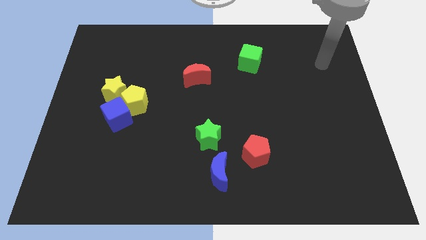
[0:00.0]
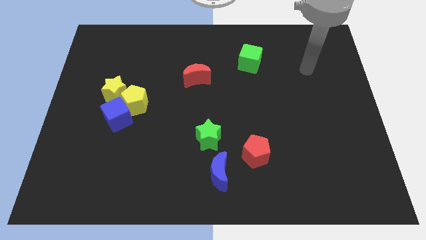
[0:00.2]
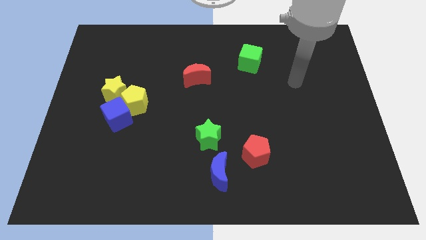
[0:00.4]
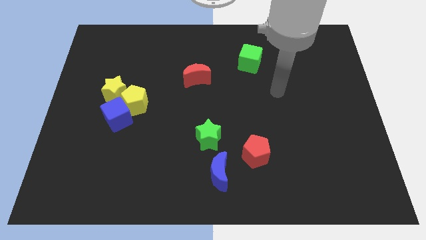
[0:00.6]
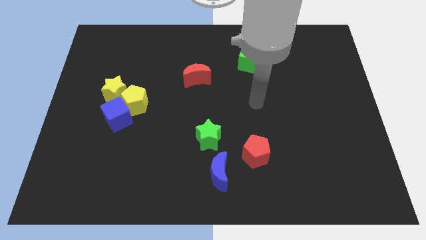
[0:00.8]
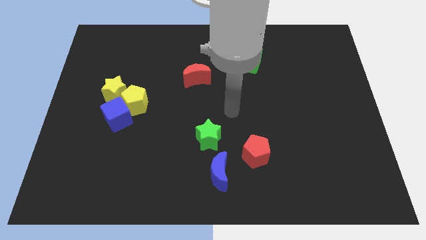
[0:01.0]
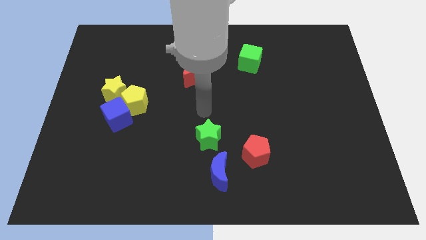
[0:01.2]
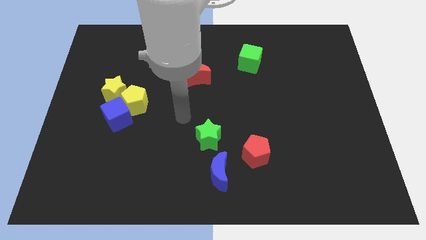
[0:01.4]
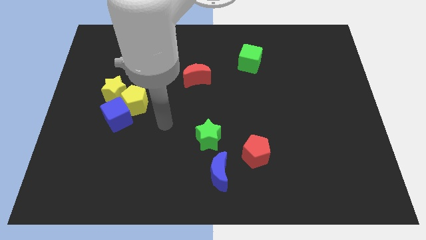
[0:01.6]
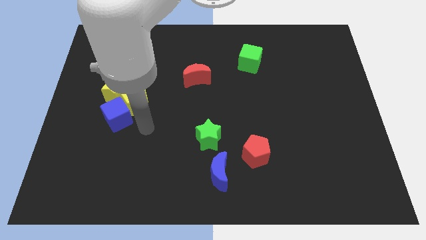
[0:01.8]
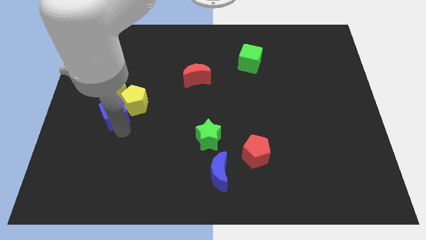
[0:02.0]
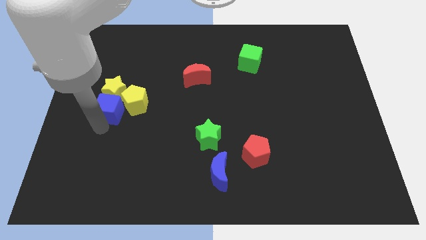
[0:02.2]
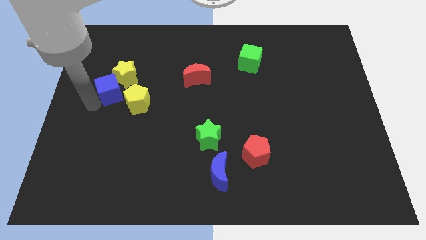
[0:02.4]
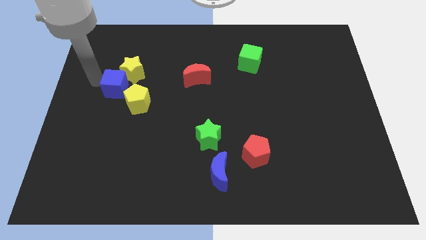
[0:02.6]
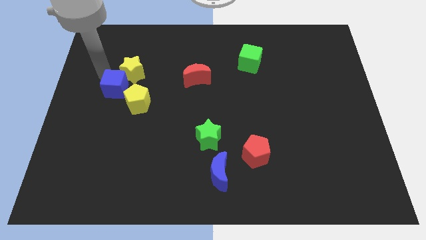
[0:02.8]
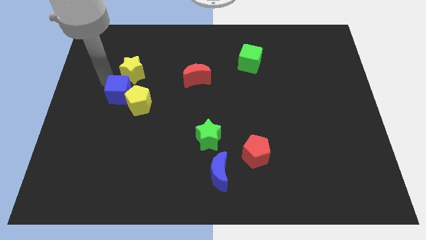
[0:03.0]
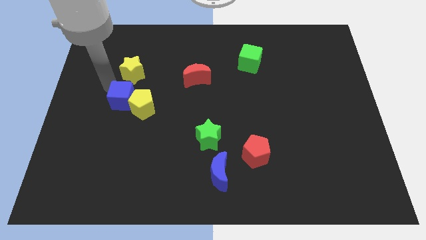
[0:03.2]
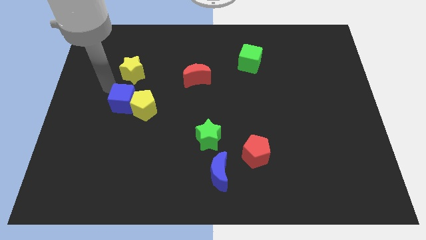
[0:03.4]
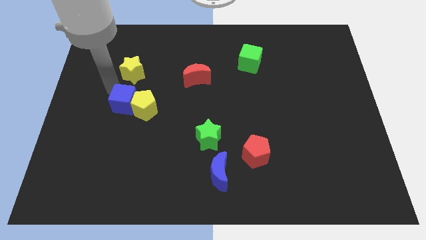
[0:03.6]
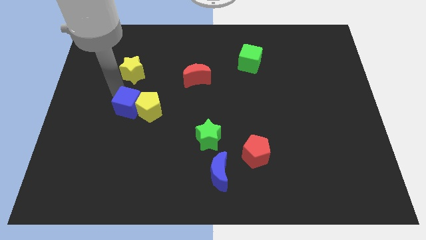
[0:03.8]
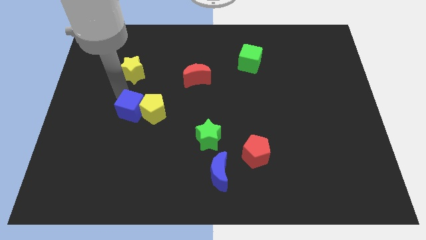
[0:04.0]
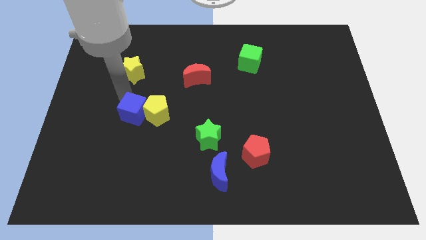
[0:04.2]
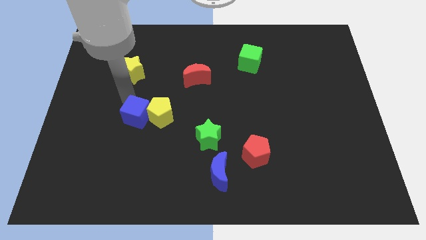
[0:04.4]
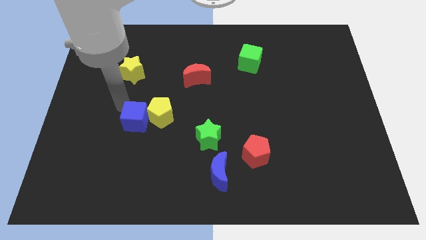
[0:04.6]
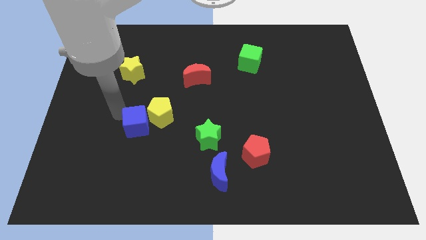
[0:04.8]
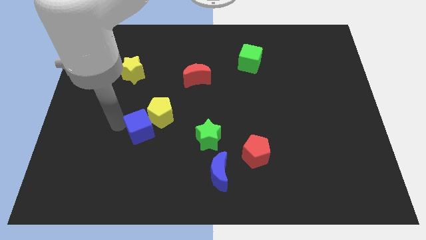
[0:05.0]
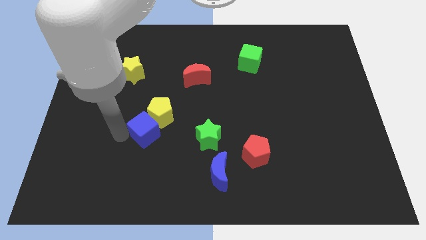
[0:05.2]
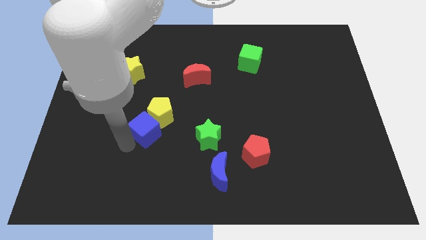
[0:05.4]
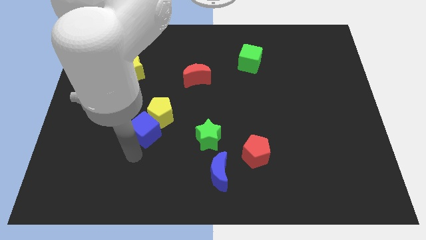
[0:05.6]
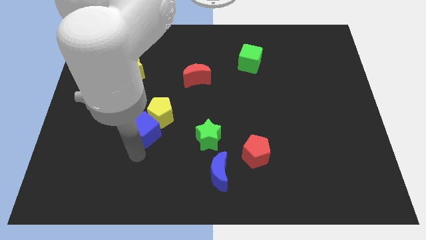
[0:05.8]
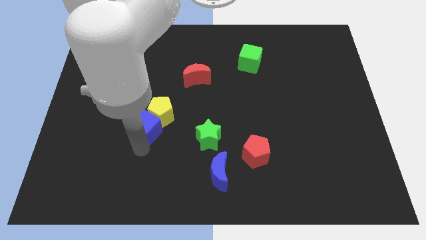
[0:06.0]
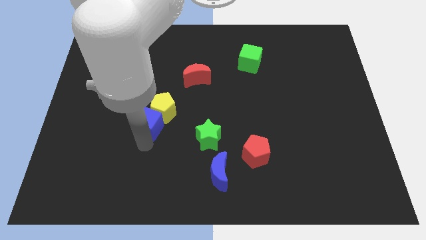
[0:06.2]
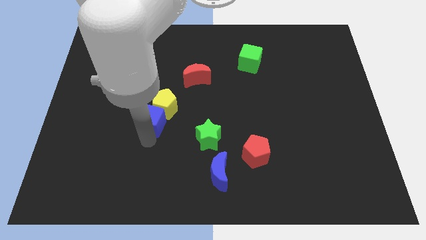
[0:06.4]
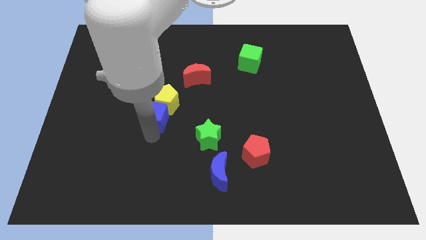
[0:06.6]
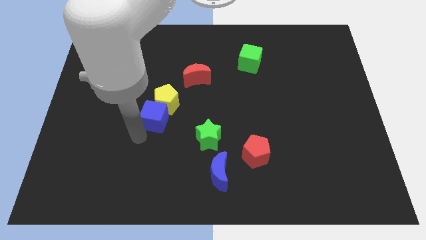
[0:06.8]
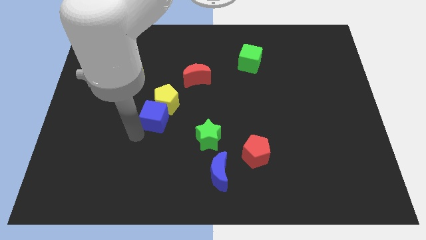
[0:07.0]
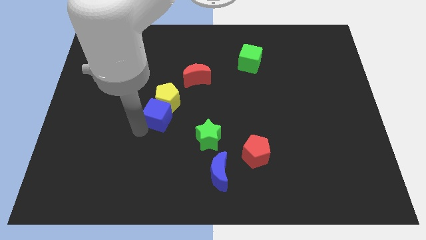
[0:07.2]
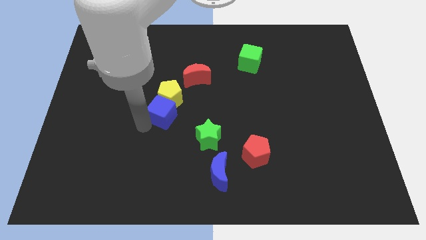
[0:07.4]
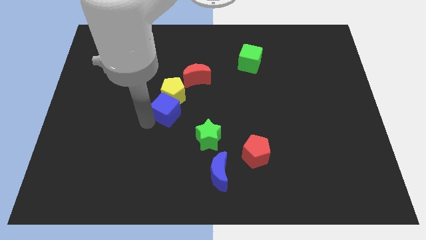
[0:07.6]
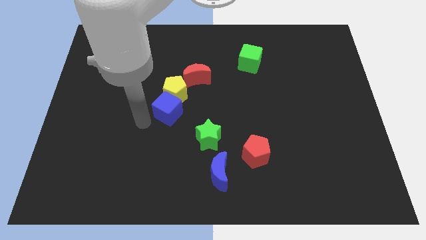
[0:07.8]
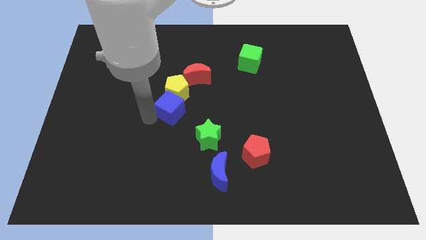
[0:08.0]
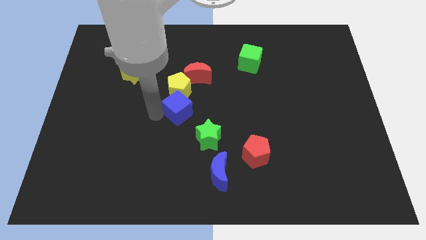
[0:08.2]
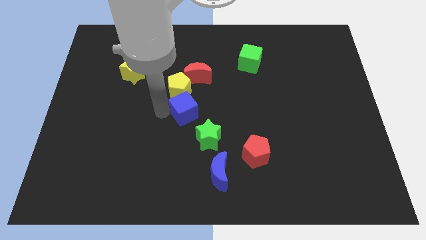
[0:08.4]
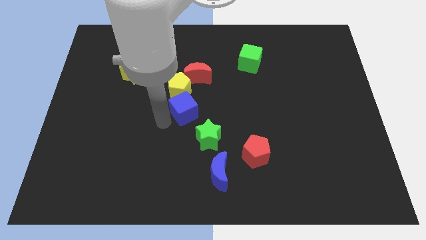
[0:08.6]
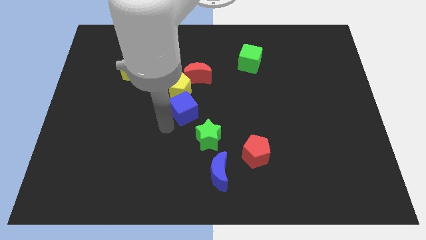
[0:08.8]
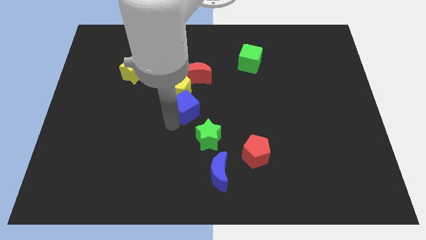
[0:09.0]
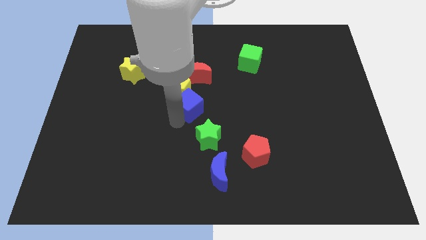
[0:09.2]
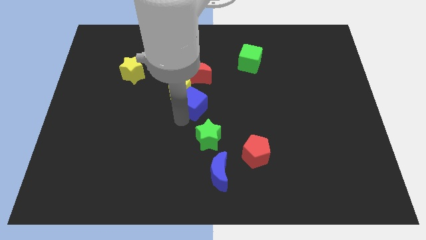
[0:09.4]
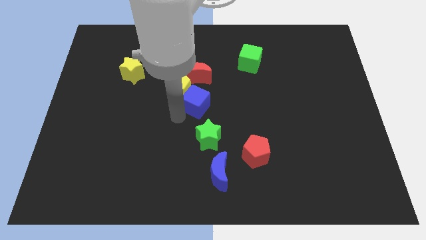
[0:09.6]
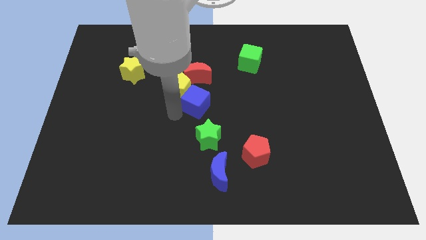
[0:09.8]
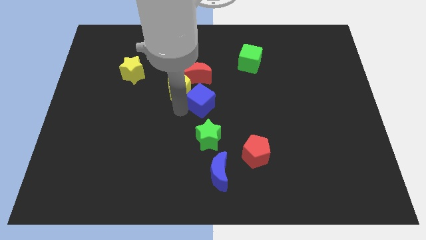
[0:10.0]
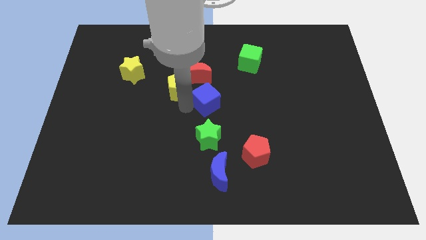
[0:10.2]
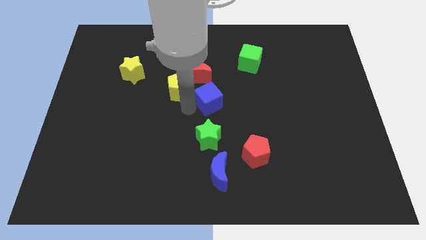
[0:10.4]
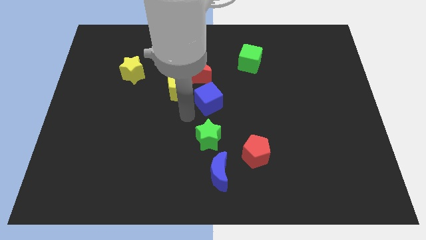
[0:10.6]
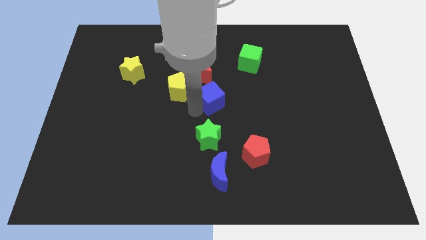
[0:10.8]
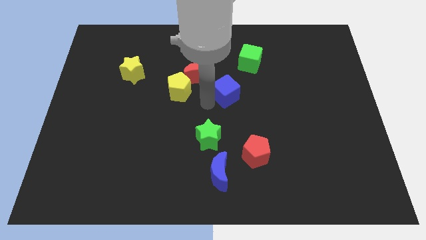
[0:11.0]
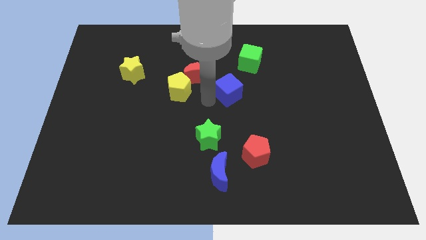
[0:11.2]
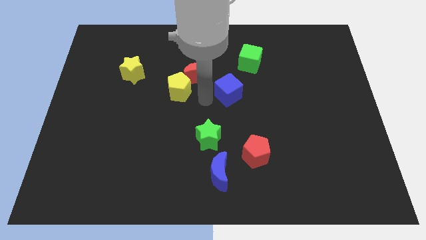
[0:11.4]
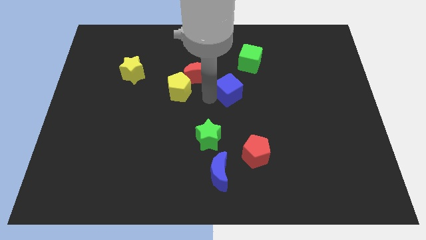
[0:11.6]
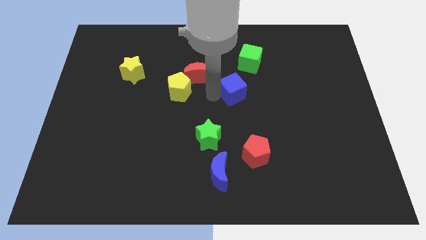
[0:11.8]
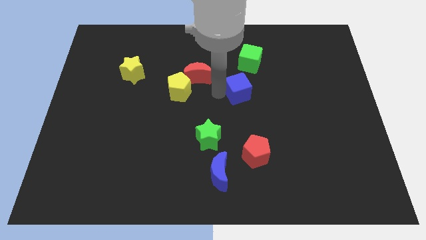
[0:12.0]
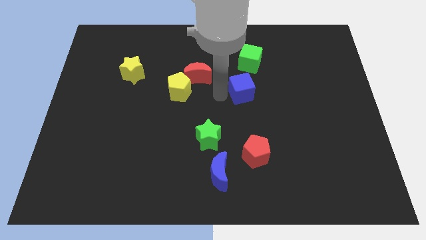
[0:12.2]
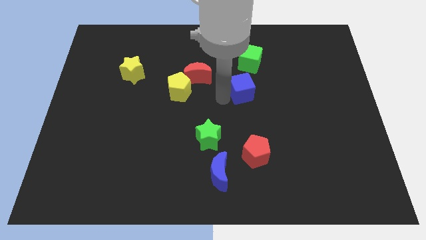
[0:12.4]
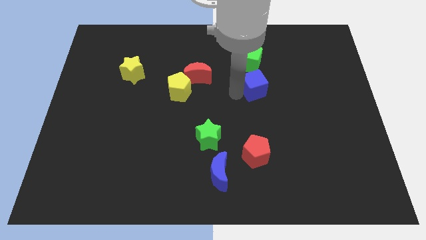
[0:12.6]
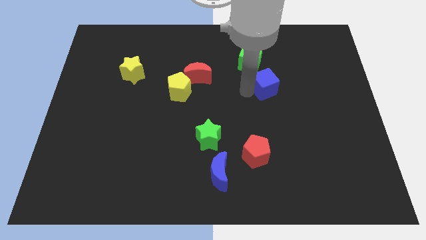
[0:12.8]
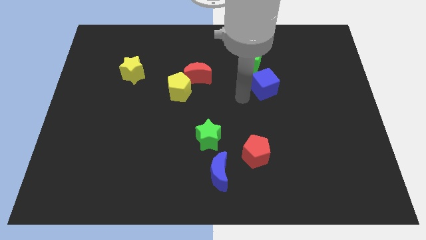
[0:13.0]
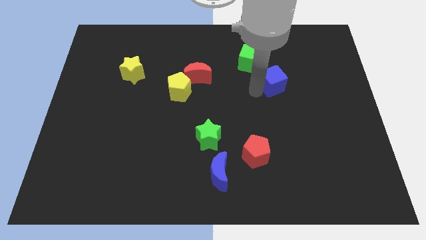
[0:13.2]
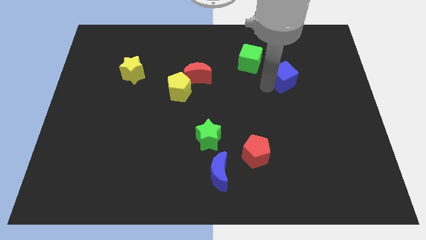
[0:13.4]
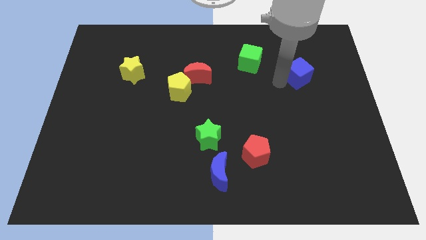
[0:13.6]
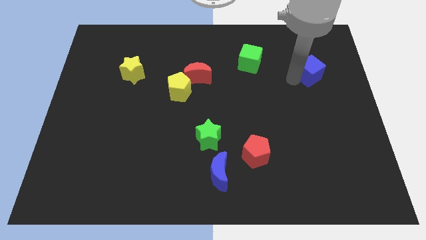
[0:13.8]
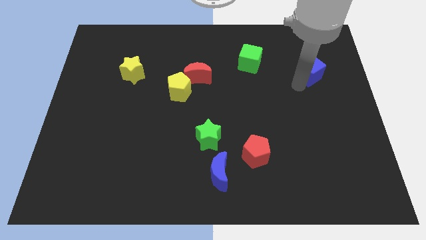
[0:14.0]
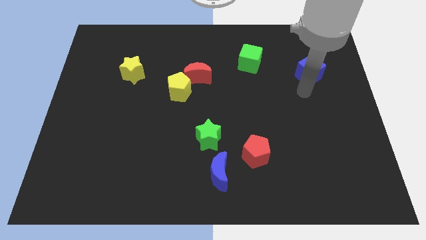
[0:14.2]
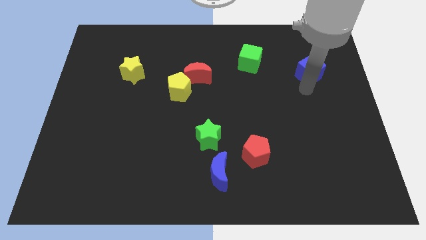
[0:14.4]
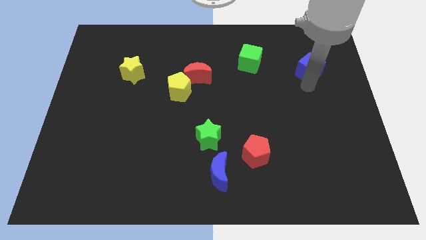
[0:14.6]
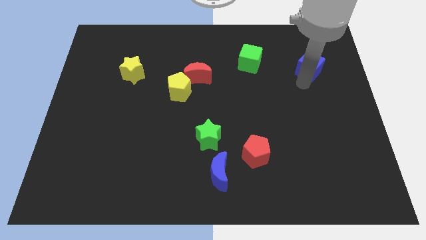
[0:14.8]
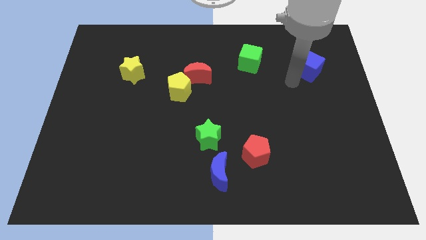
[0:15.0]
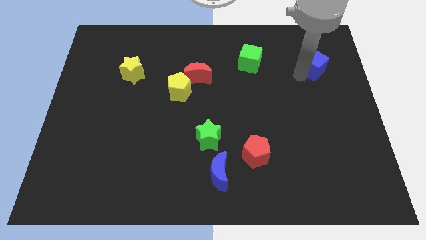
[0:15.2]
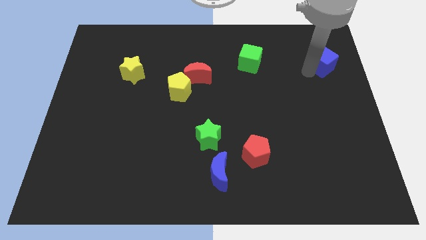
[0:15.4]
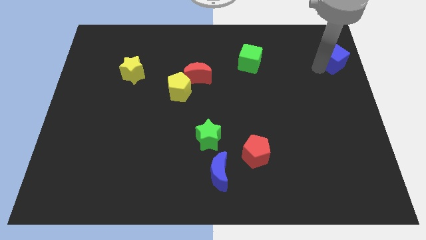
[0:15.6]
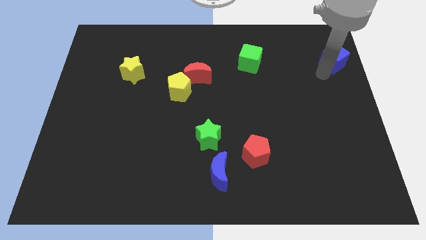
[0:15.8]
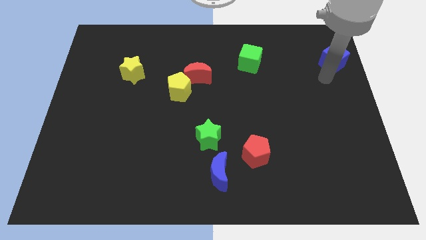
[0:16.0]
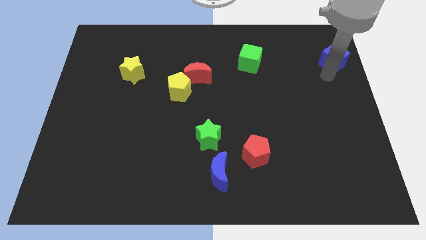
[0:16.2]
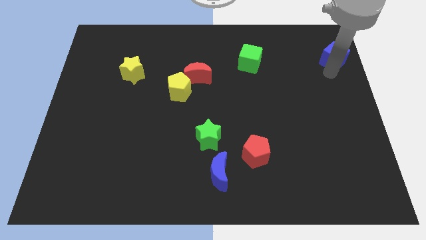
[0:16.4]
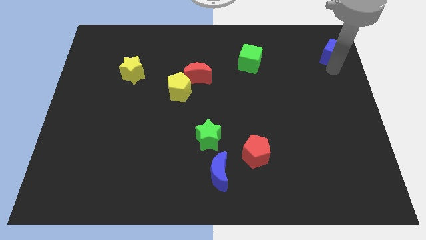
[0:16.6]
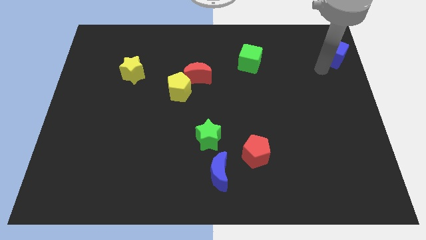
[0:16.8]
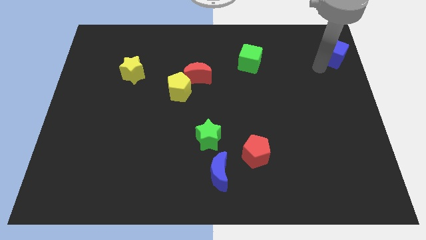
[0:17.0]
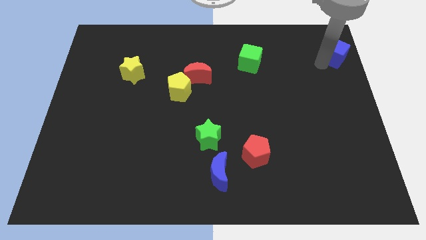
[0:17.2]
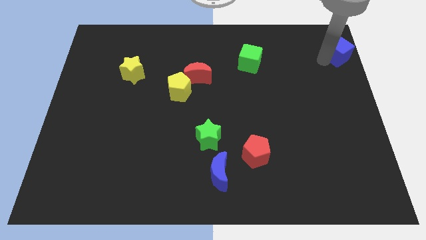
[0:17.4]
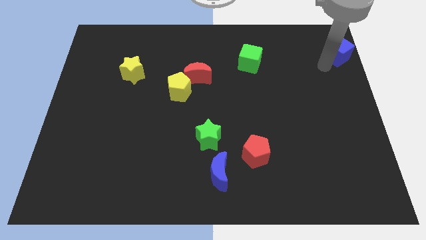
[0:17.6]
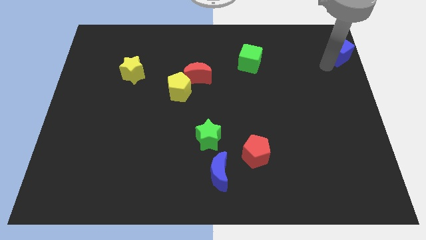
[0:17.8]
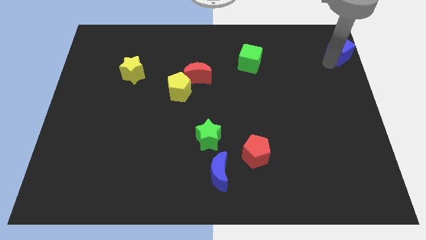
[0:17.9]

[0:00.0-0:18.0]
push the blue cube to the top right of the board
